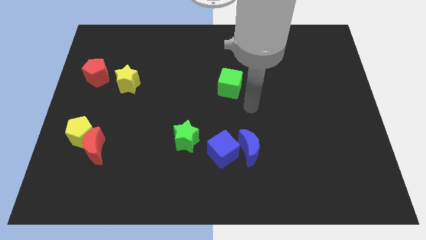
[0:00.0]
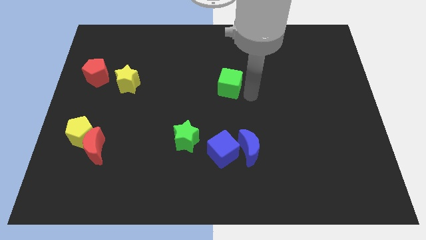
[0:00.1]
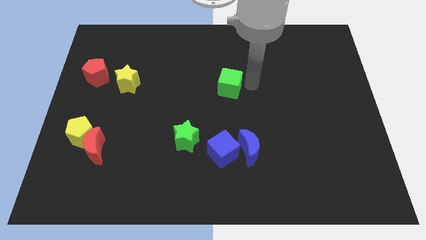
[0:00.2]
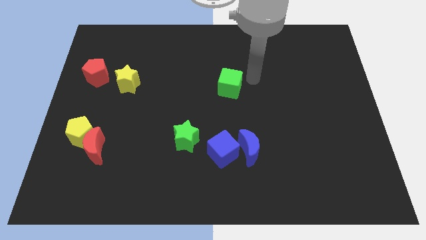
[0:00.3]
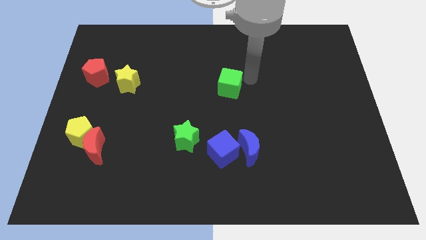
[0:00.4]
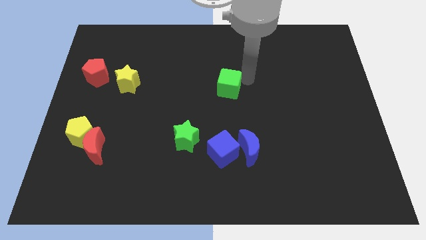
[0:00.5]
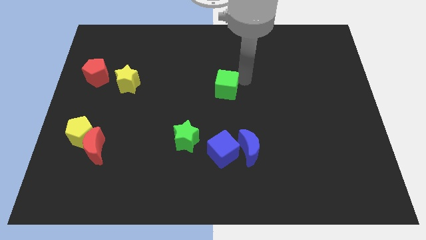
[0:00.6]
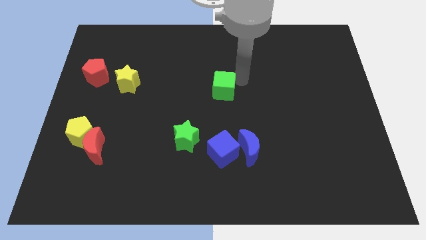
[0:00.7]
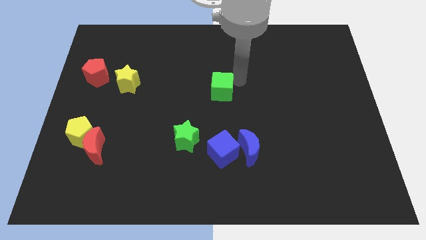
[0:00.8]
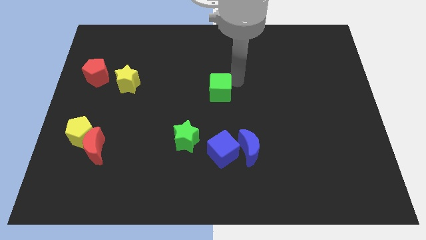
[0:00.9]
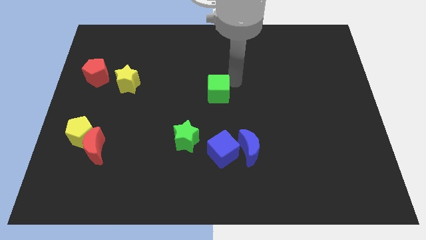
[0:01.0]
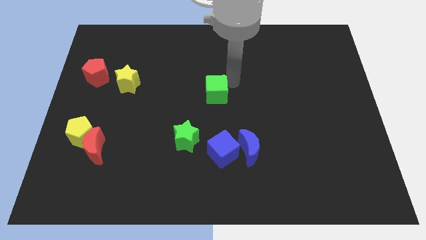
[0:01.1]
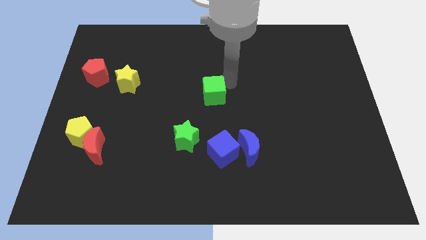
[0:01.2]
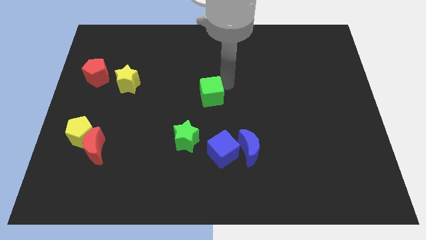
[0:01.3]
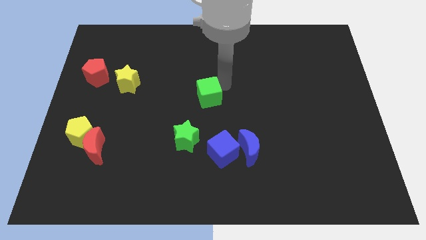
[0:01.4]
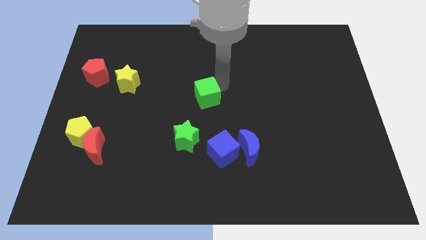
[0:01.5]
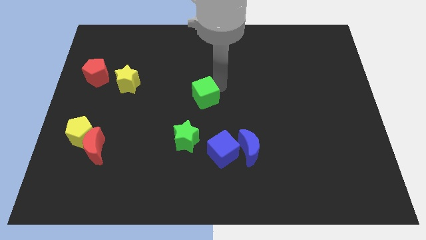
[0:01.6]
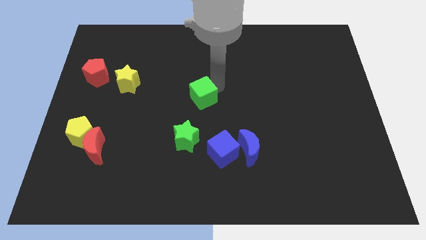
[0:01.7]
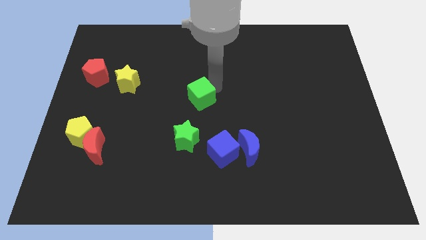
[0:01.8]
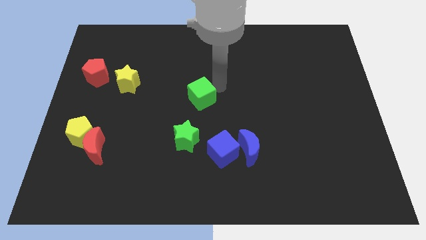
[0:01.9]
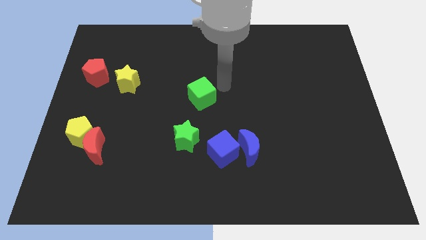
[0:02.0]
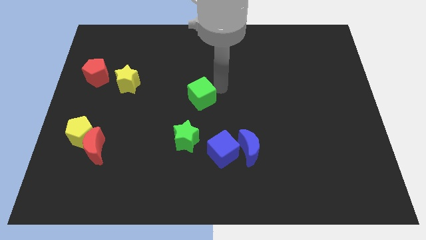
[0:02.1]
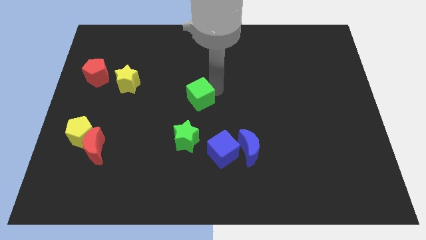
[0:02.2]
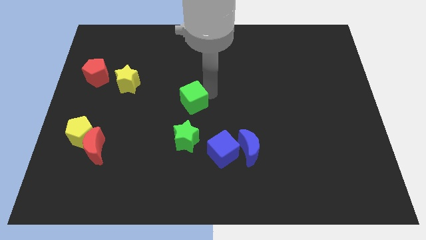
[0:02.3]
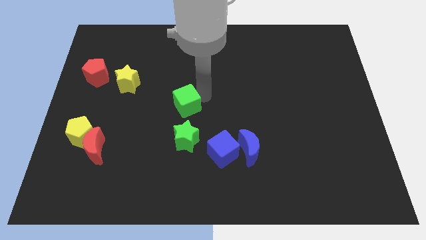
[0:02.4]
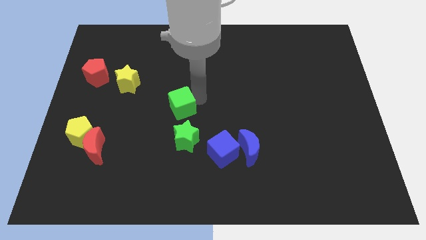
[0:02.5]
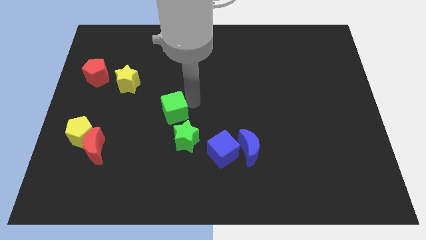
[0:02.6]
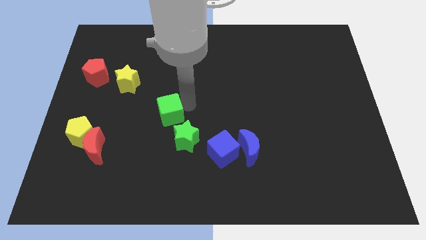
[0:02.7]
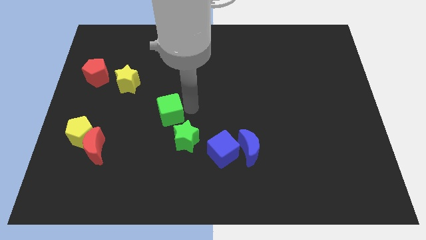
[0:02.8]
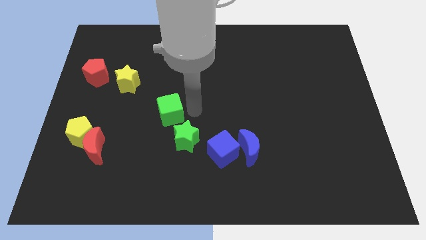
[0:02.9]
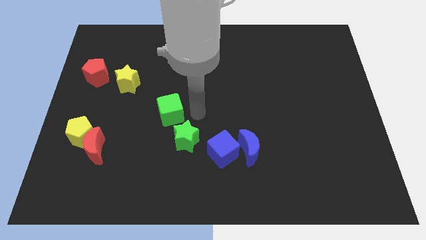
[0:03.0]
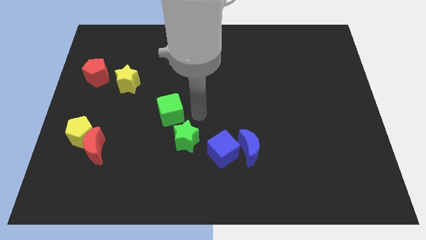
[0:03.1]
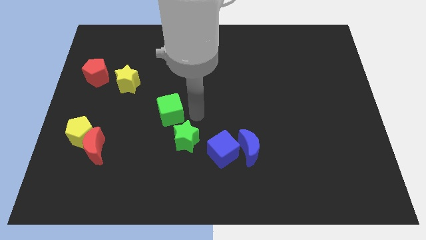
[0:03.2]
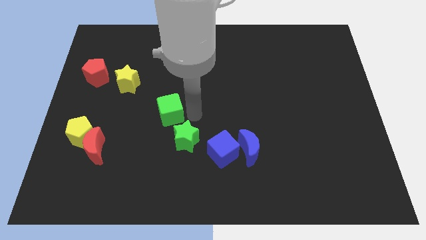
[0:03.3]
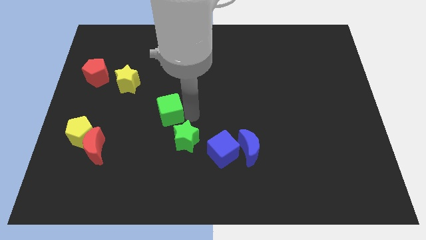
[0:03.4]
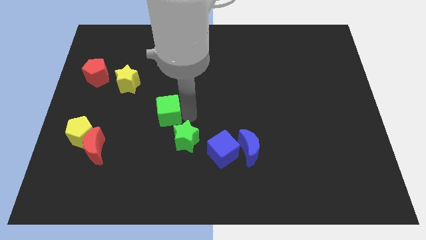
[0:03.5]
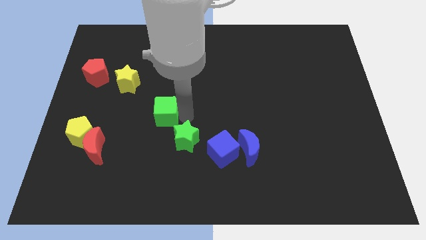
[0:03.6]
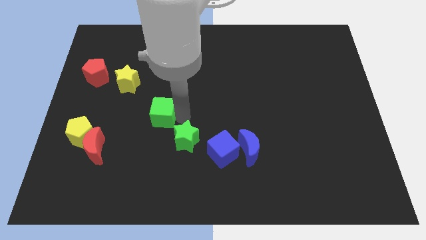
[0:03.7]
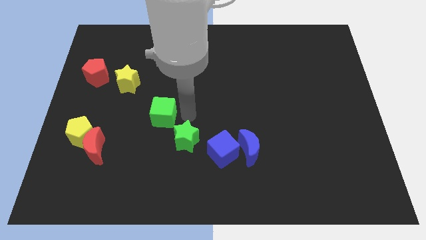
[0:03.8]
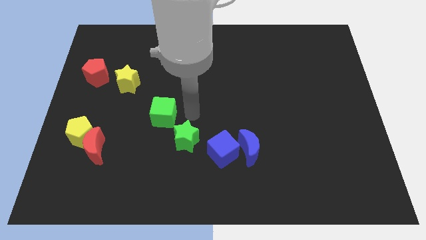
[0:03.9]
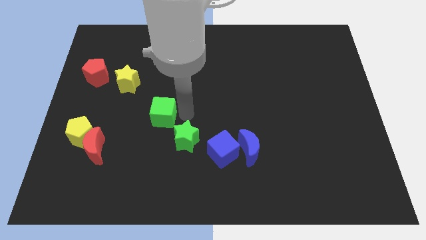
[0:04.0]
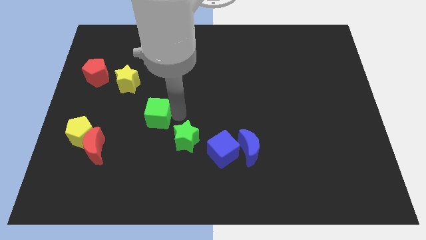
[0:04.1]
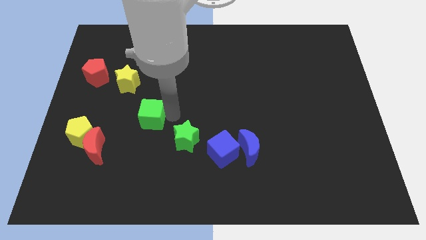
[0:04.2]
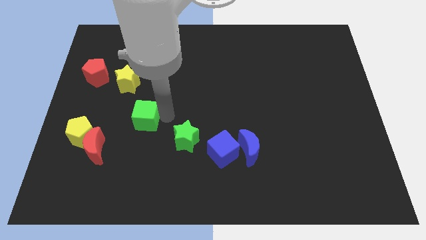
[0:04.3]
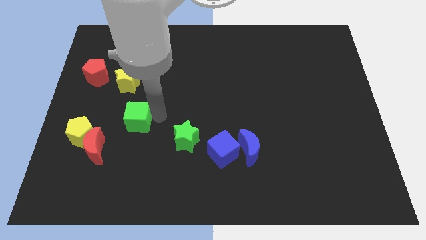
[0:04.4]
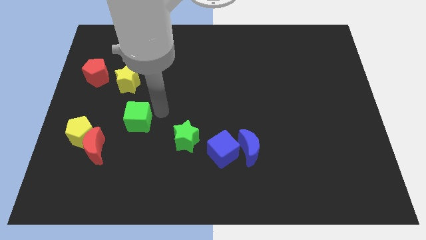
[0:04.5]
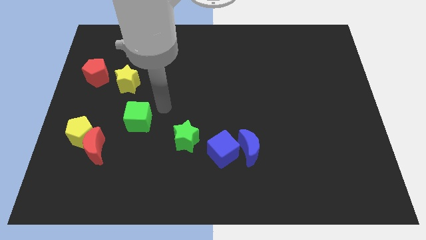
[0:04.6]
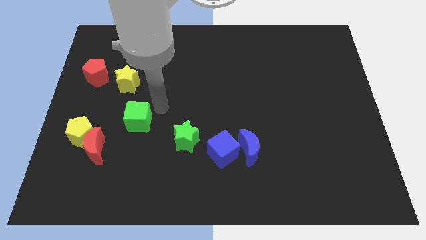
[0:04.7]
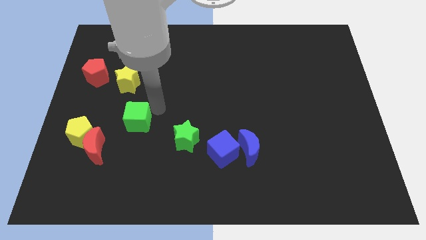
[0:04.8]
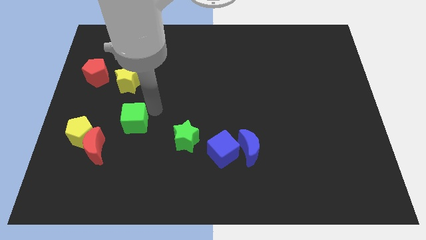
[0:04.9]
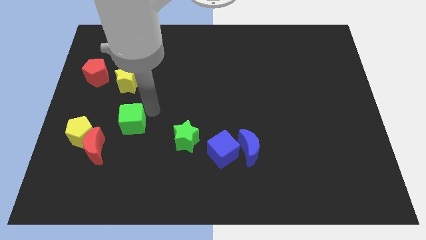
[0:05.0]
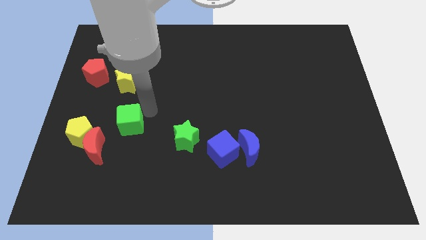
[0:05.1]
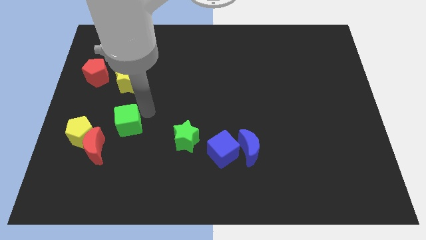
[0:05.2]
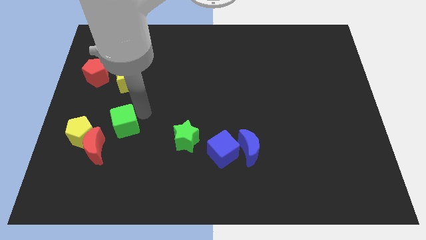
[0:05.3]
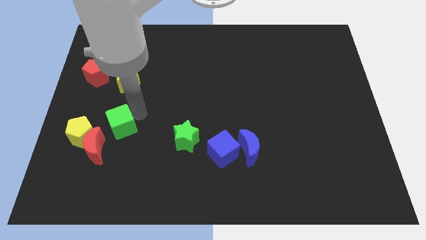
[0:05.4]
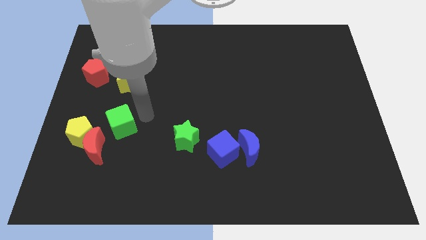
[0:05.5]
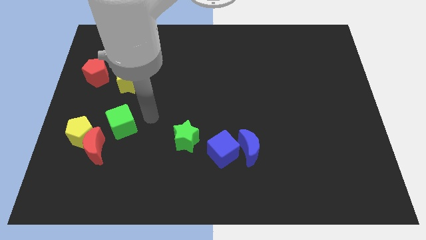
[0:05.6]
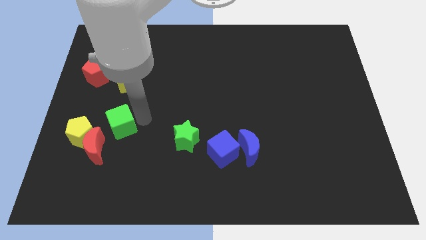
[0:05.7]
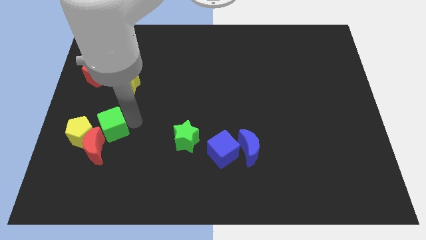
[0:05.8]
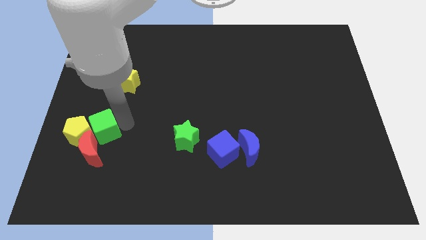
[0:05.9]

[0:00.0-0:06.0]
push the green cube next to the yellow pentagon
